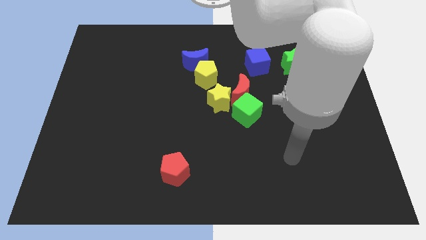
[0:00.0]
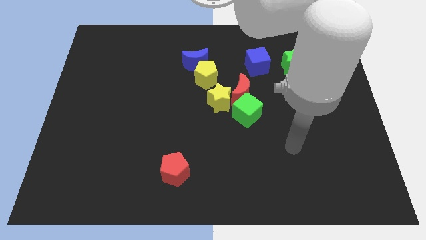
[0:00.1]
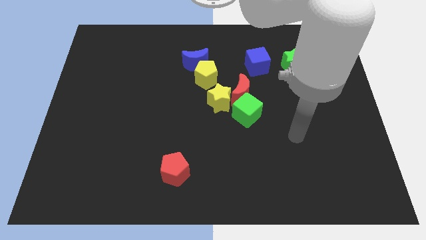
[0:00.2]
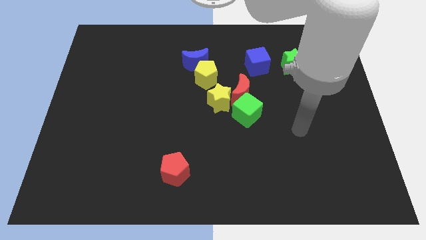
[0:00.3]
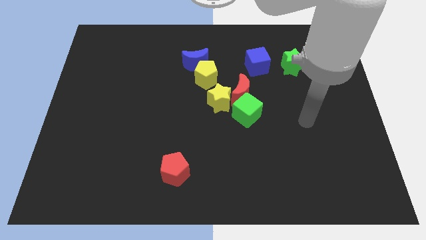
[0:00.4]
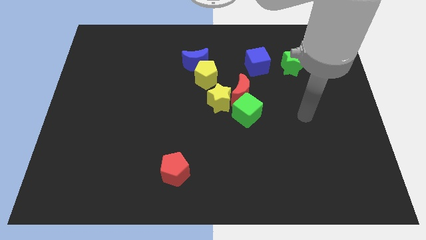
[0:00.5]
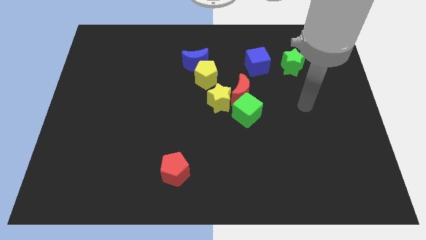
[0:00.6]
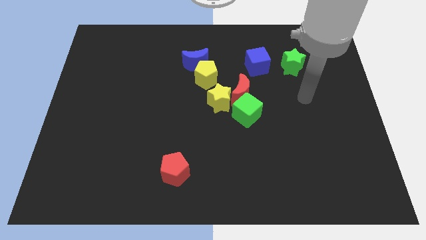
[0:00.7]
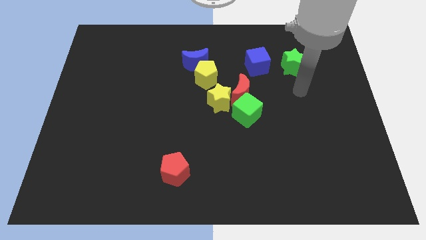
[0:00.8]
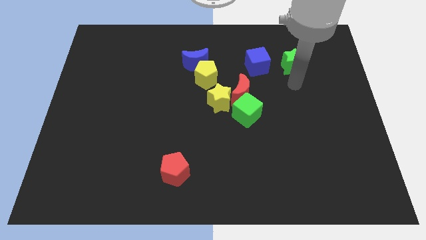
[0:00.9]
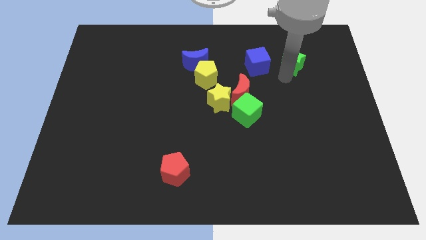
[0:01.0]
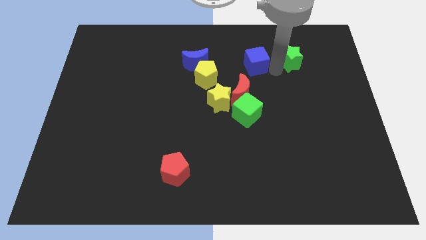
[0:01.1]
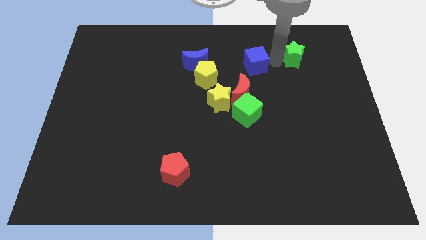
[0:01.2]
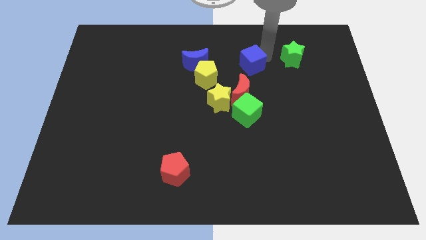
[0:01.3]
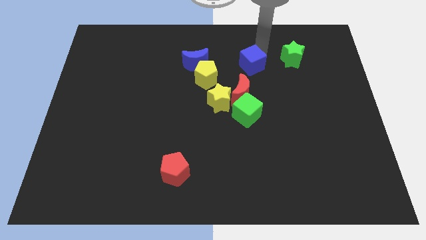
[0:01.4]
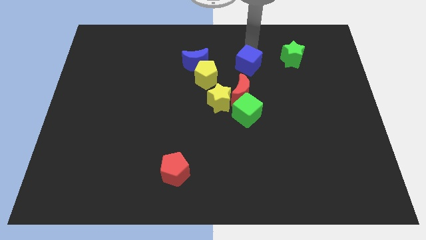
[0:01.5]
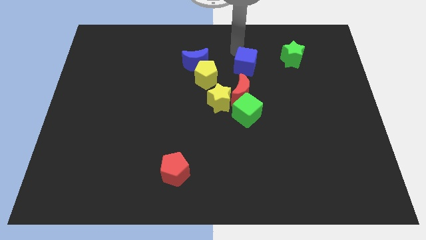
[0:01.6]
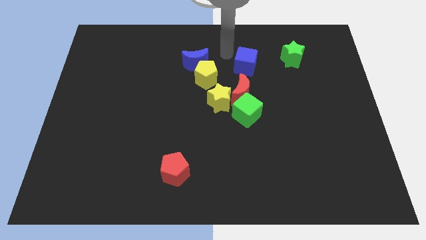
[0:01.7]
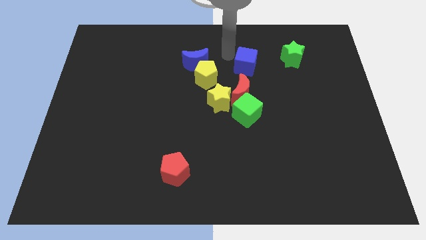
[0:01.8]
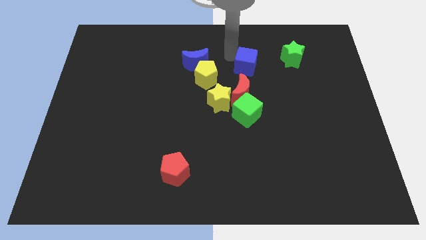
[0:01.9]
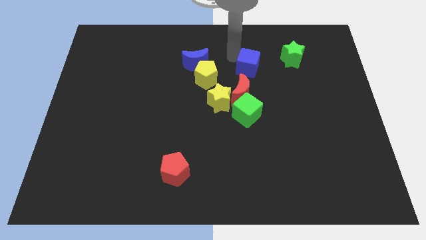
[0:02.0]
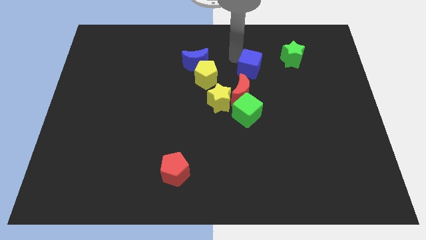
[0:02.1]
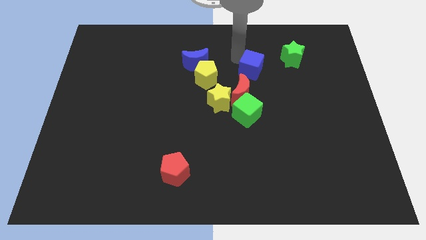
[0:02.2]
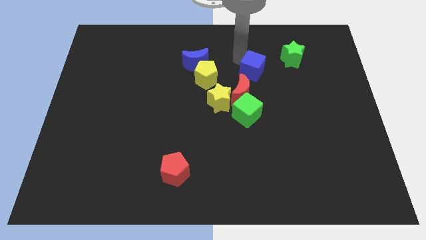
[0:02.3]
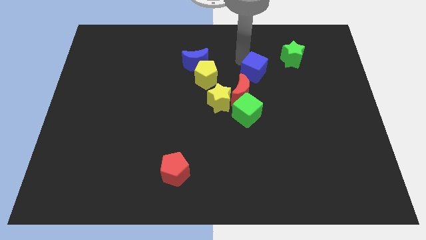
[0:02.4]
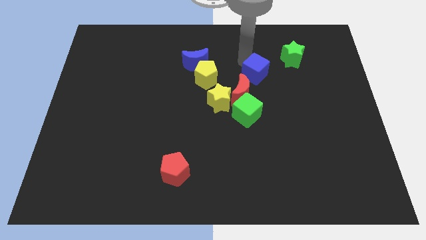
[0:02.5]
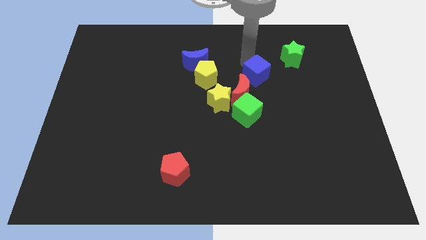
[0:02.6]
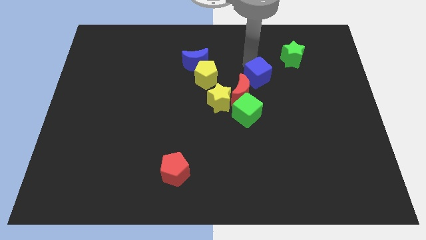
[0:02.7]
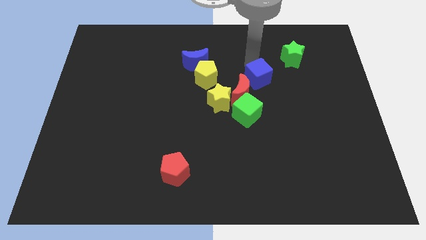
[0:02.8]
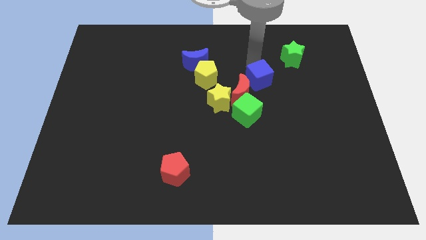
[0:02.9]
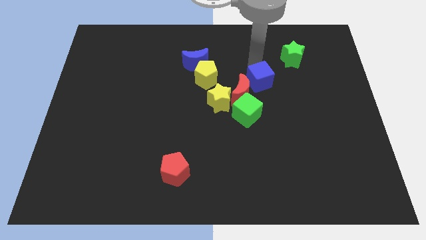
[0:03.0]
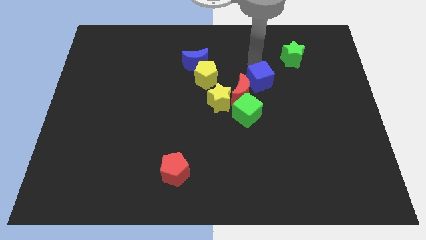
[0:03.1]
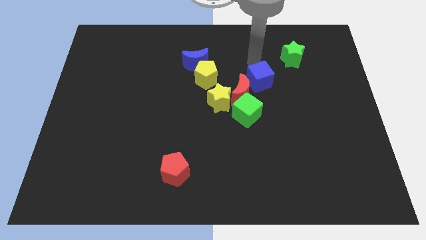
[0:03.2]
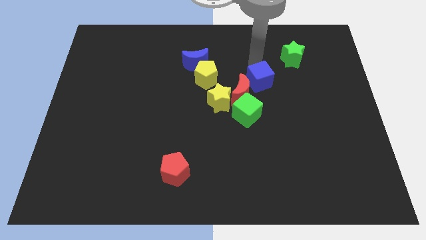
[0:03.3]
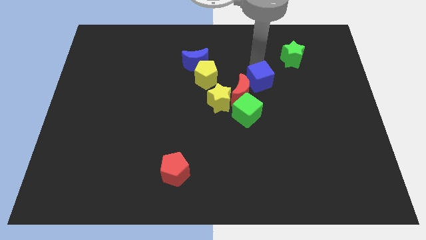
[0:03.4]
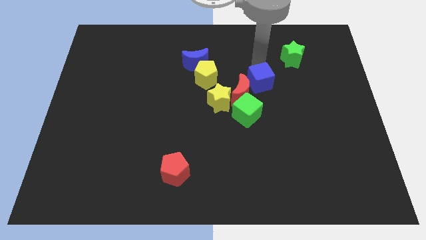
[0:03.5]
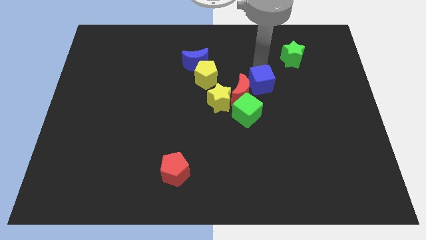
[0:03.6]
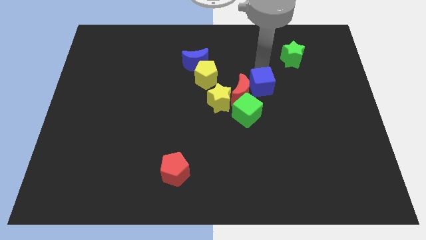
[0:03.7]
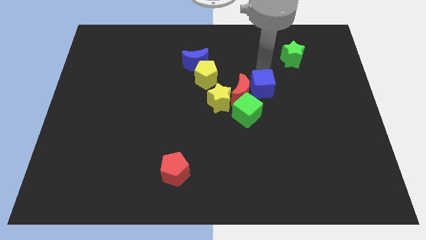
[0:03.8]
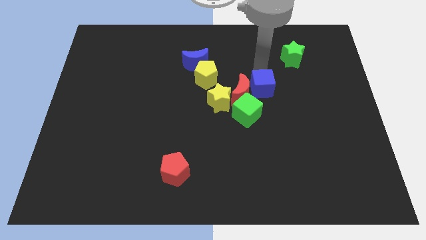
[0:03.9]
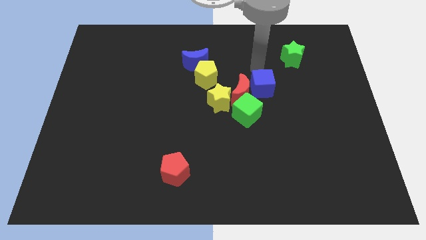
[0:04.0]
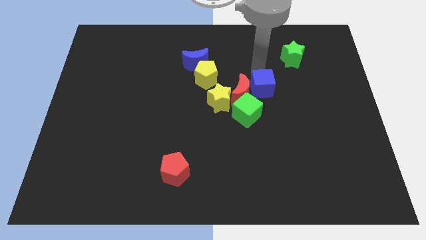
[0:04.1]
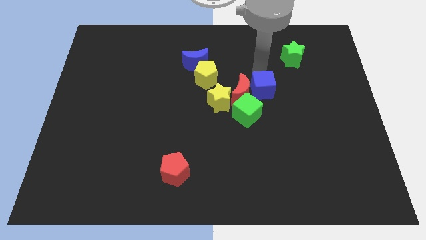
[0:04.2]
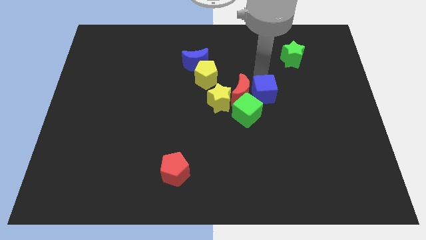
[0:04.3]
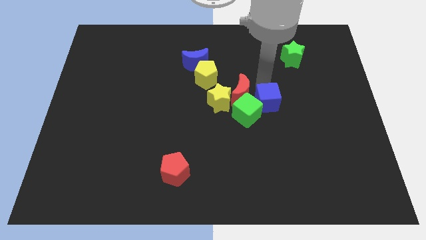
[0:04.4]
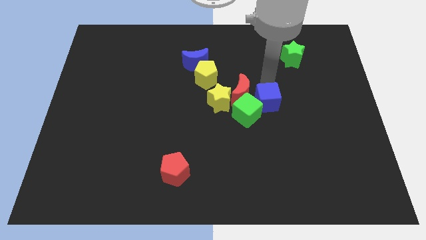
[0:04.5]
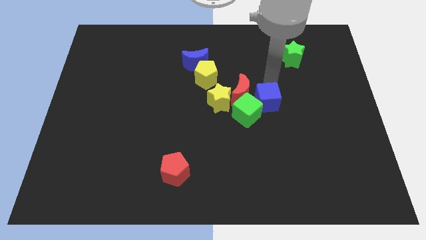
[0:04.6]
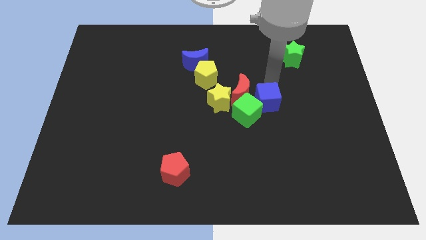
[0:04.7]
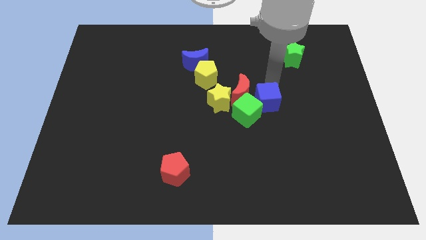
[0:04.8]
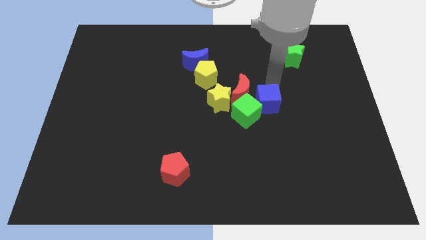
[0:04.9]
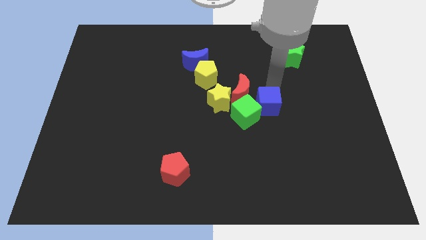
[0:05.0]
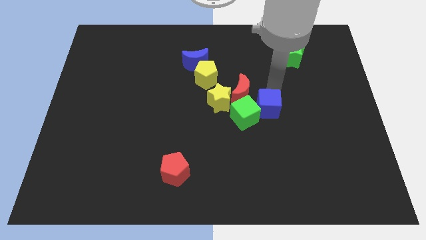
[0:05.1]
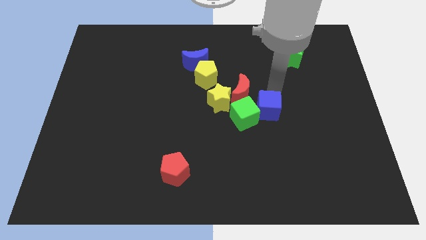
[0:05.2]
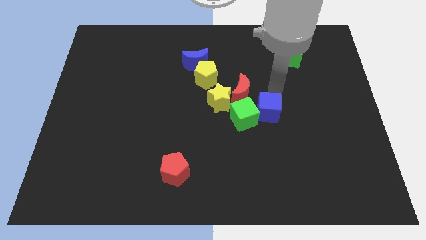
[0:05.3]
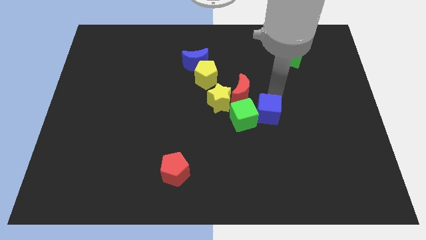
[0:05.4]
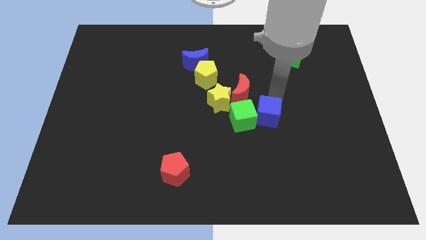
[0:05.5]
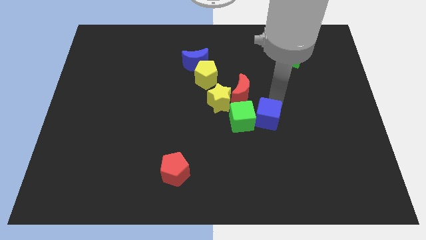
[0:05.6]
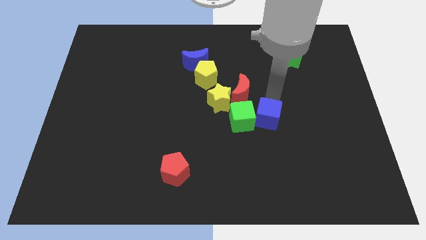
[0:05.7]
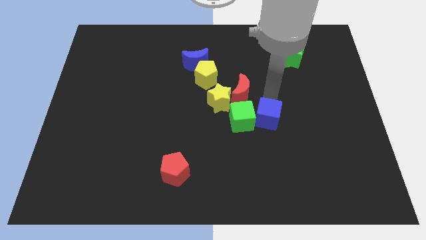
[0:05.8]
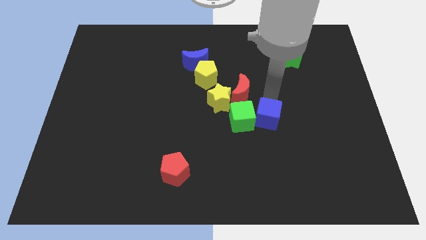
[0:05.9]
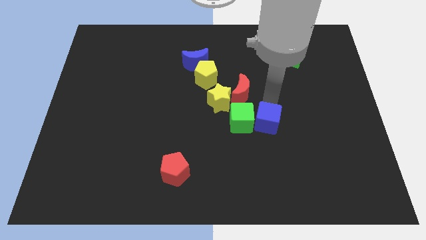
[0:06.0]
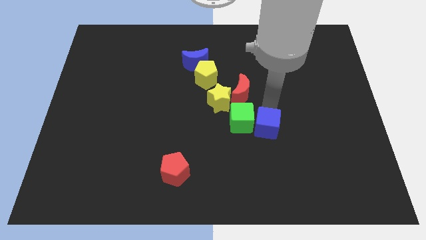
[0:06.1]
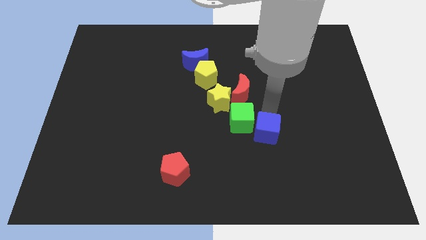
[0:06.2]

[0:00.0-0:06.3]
slide the blue cube down

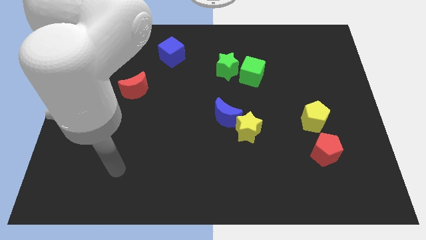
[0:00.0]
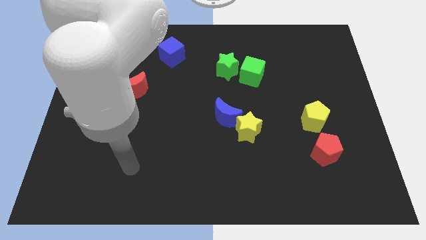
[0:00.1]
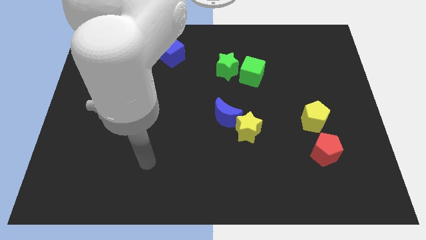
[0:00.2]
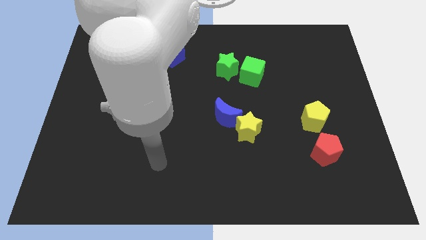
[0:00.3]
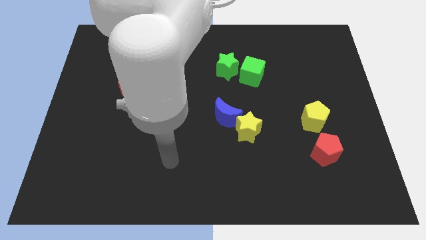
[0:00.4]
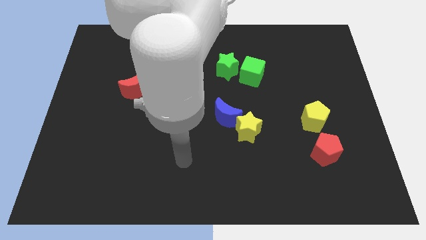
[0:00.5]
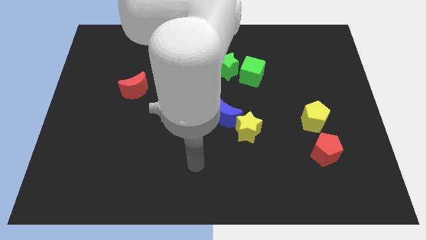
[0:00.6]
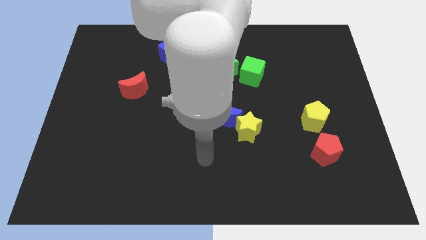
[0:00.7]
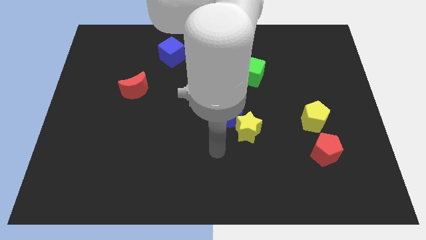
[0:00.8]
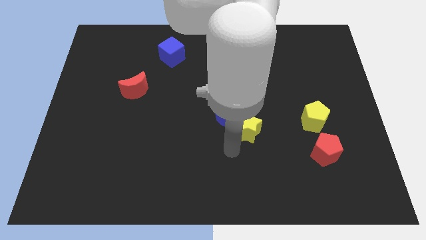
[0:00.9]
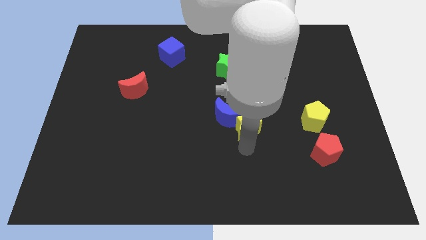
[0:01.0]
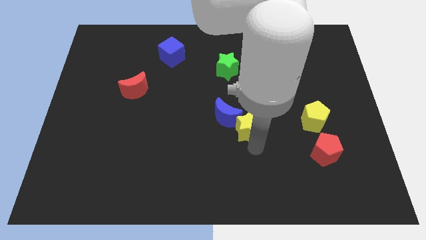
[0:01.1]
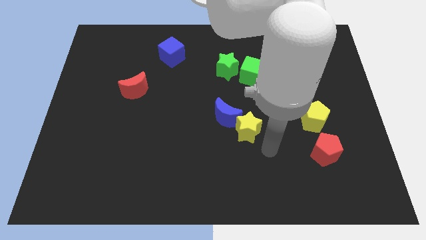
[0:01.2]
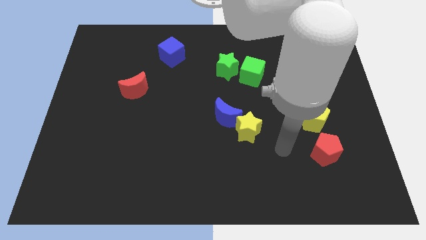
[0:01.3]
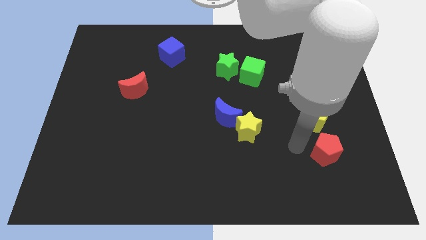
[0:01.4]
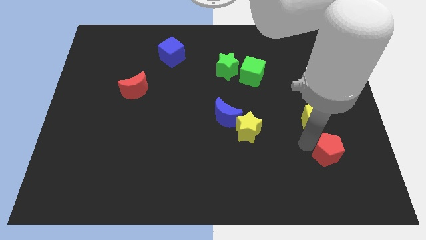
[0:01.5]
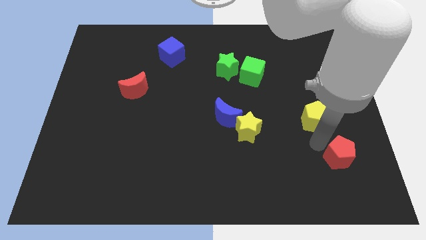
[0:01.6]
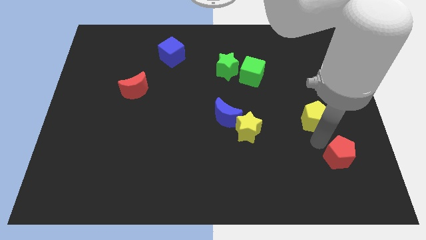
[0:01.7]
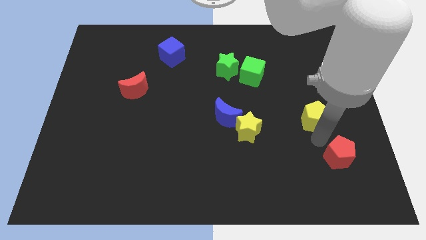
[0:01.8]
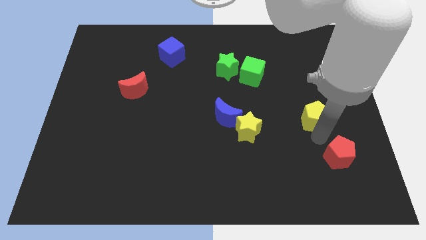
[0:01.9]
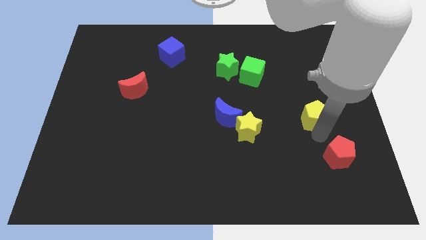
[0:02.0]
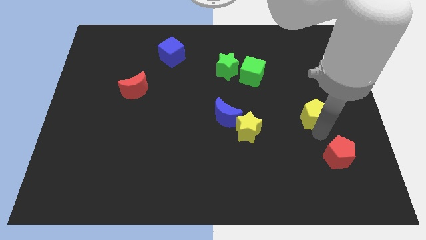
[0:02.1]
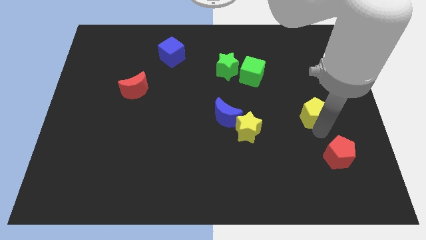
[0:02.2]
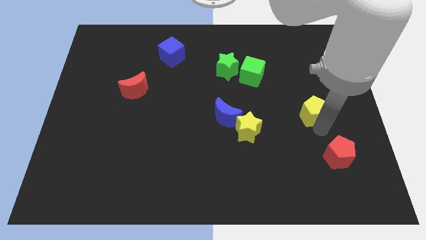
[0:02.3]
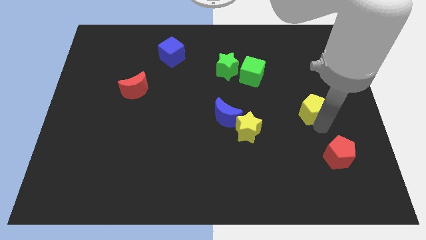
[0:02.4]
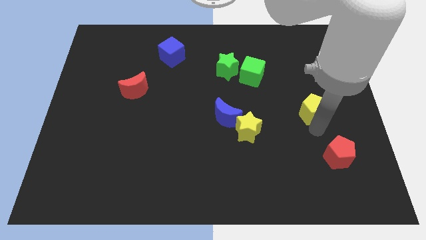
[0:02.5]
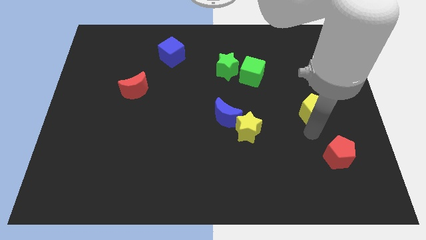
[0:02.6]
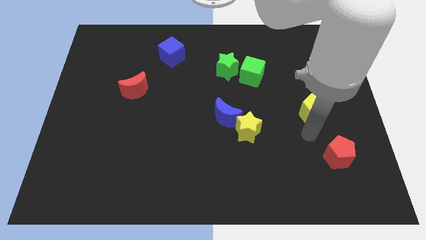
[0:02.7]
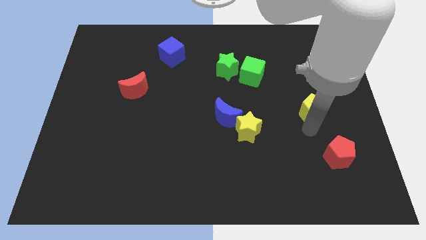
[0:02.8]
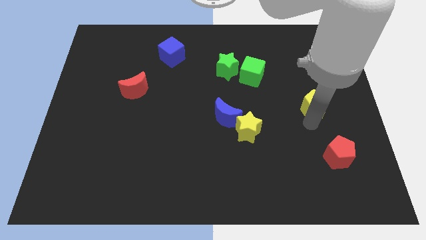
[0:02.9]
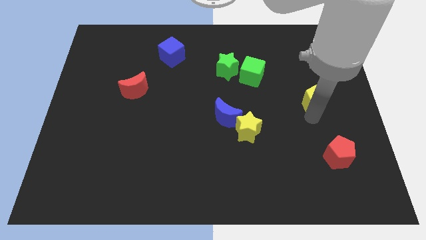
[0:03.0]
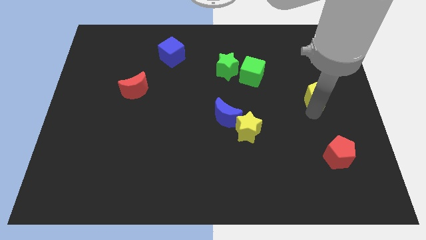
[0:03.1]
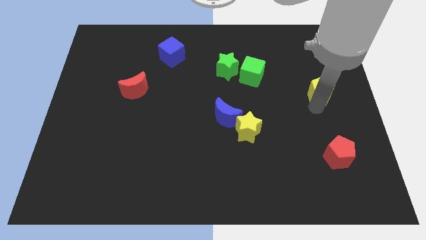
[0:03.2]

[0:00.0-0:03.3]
slightly push the yellow pentagon up
